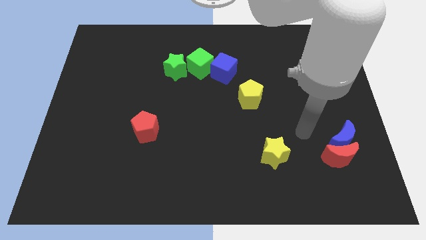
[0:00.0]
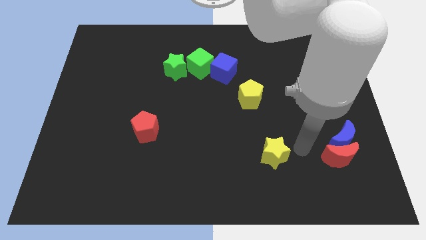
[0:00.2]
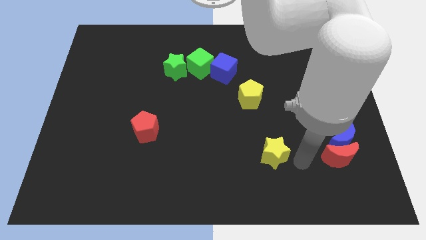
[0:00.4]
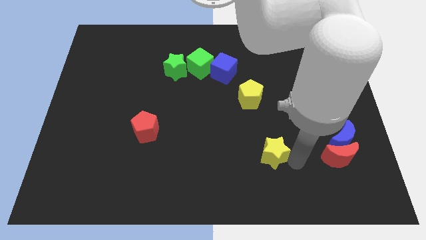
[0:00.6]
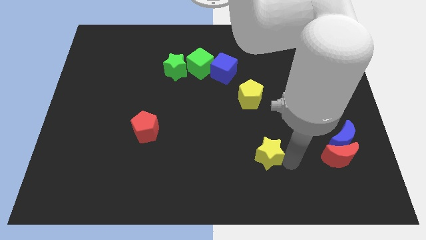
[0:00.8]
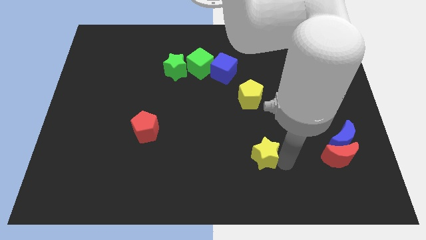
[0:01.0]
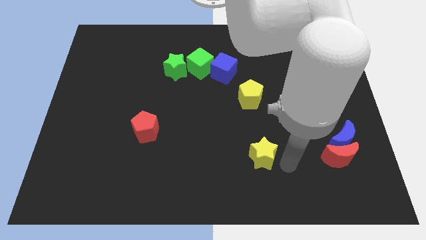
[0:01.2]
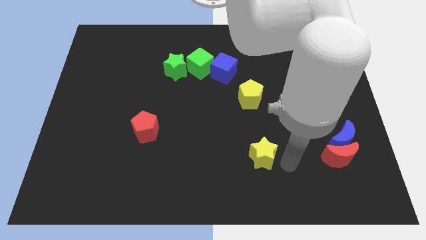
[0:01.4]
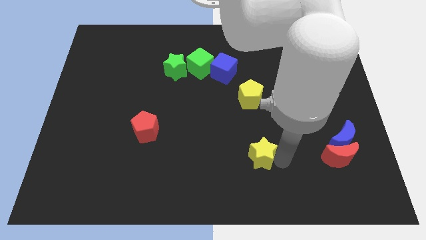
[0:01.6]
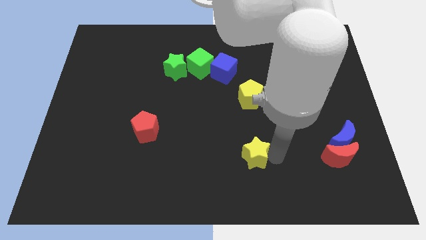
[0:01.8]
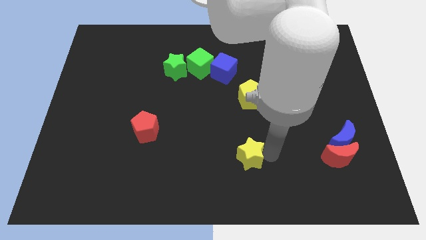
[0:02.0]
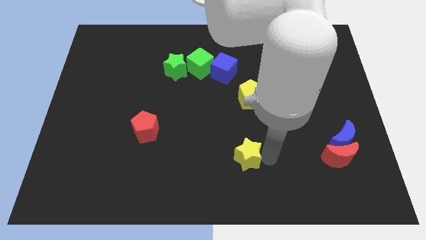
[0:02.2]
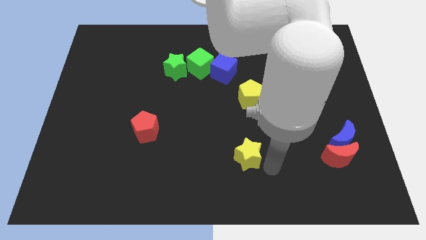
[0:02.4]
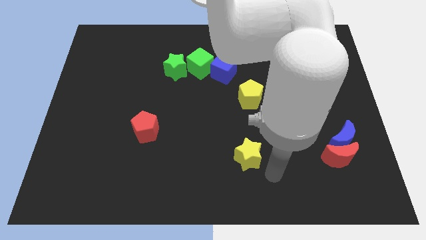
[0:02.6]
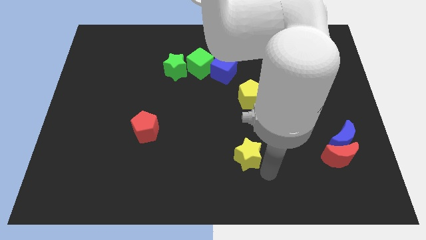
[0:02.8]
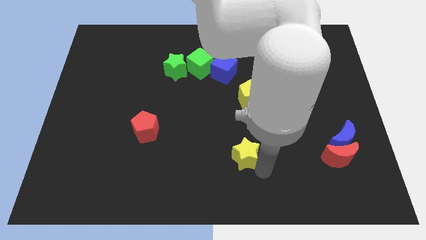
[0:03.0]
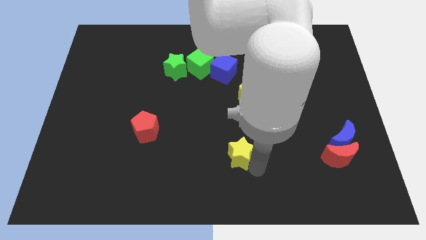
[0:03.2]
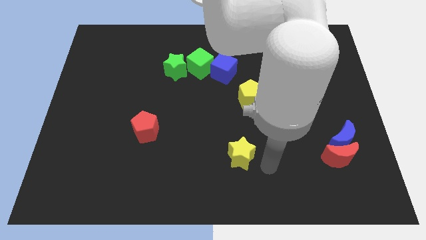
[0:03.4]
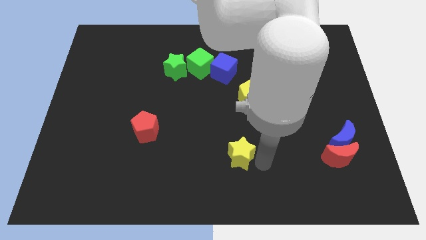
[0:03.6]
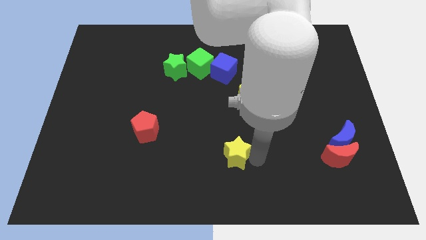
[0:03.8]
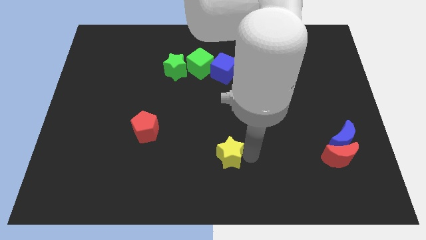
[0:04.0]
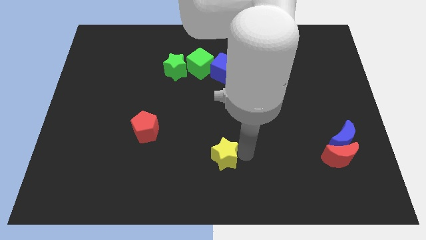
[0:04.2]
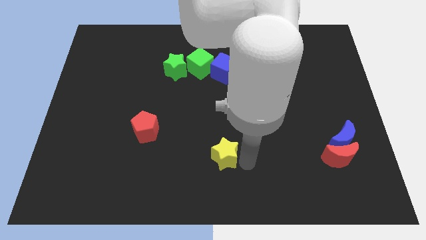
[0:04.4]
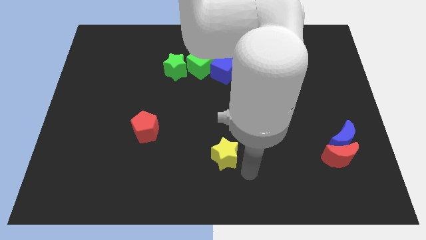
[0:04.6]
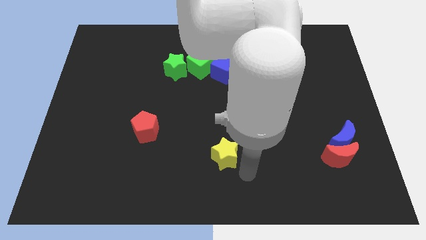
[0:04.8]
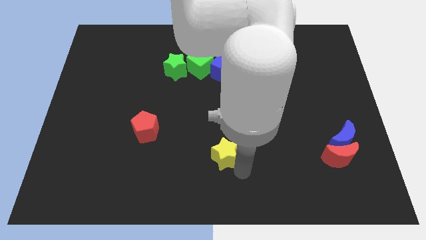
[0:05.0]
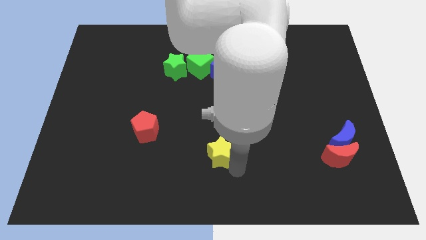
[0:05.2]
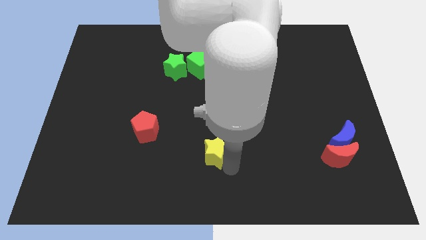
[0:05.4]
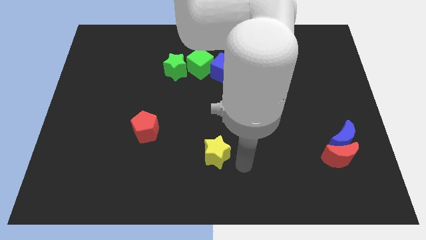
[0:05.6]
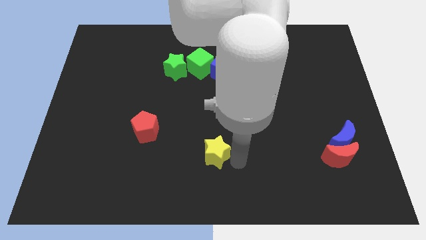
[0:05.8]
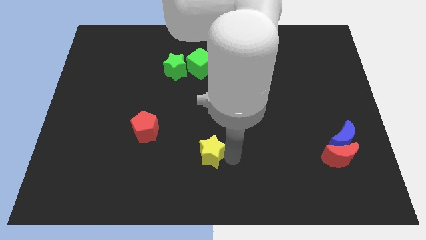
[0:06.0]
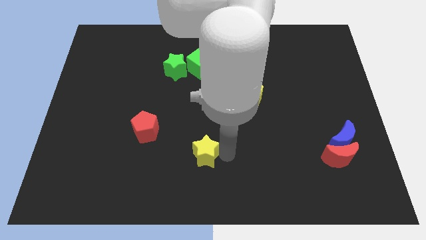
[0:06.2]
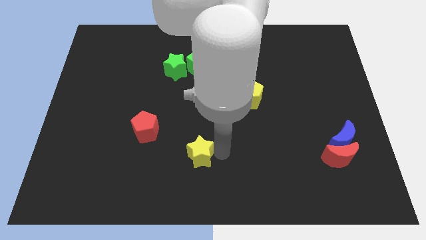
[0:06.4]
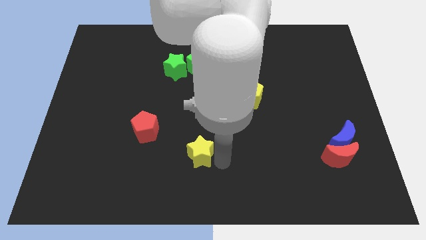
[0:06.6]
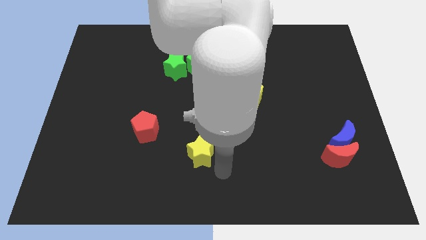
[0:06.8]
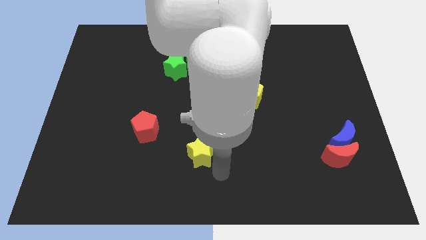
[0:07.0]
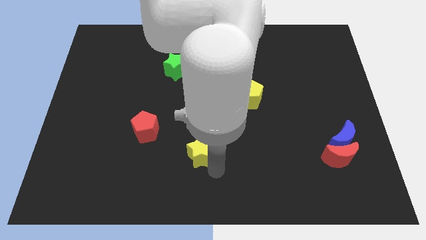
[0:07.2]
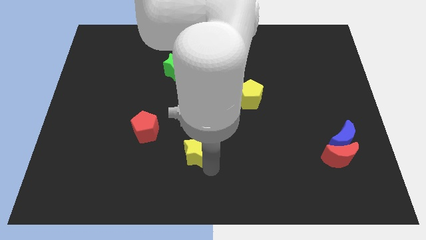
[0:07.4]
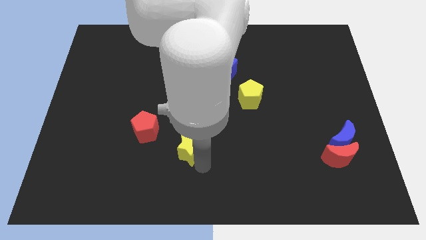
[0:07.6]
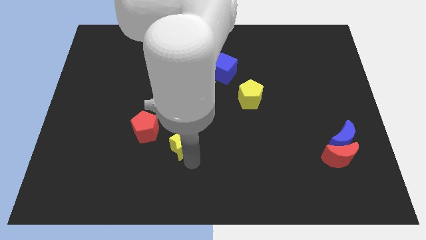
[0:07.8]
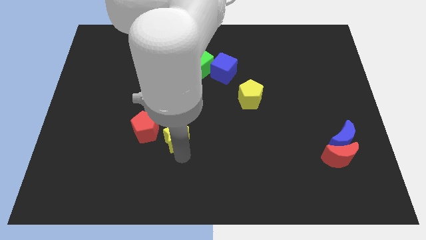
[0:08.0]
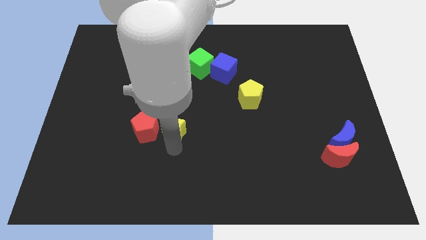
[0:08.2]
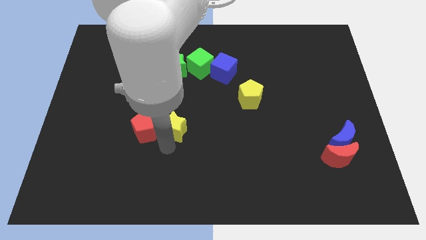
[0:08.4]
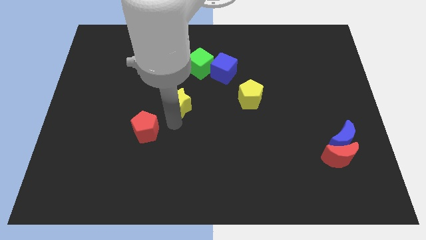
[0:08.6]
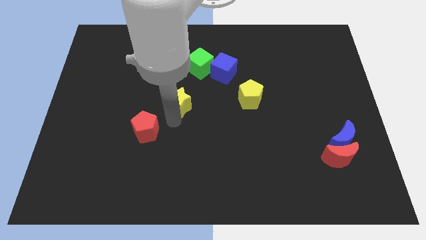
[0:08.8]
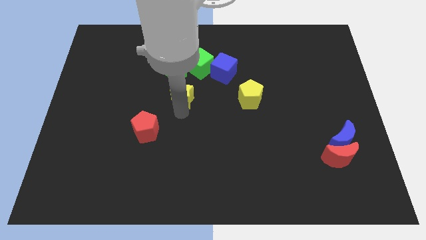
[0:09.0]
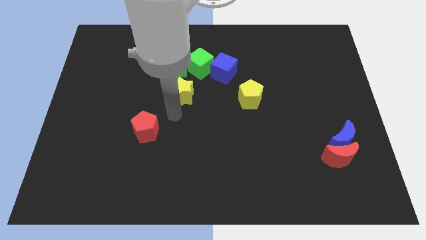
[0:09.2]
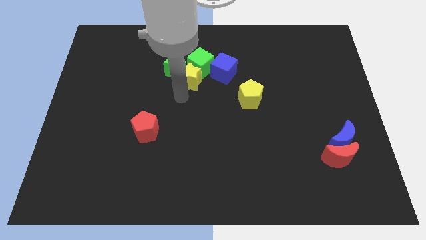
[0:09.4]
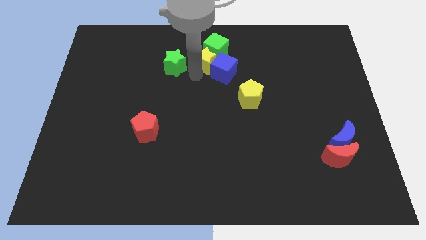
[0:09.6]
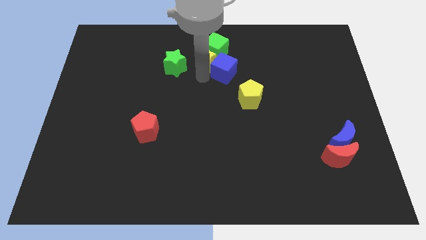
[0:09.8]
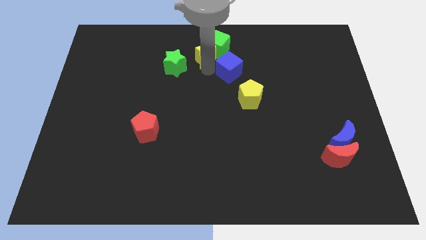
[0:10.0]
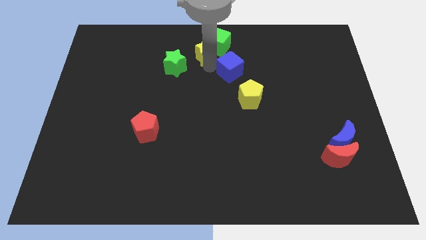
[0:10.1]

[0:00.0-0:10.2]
slide the yellow star to the towards your base

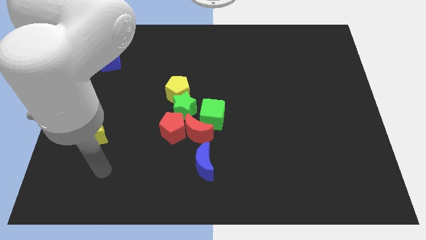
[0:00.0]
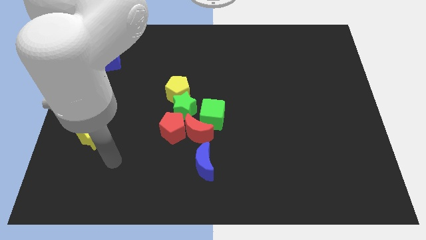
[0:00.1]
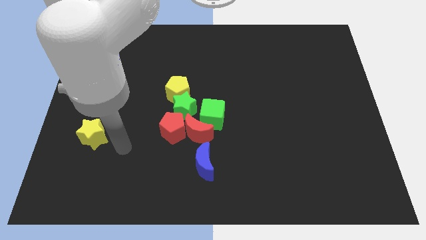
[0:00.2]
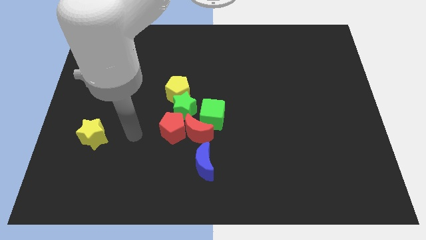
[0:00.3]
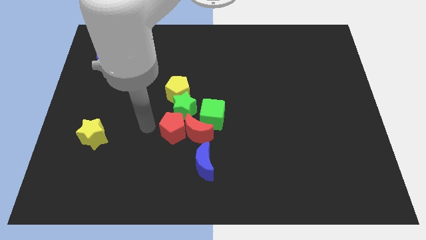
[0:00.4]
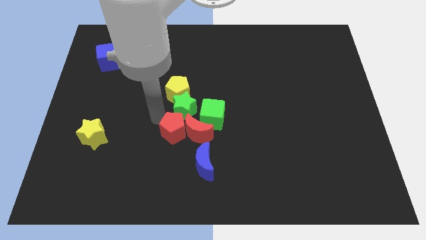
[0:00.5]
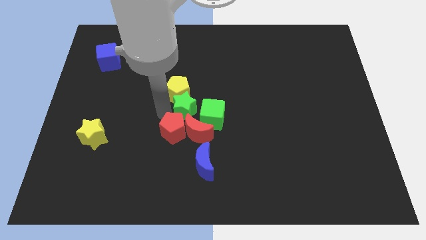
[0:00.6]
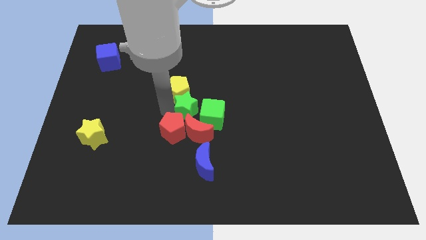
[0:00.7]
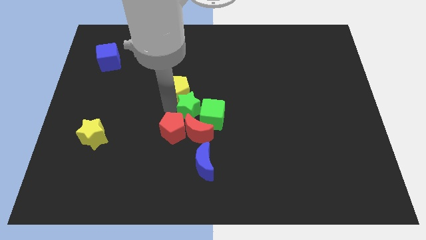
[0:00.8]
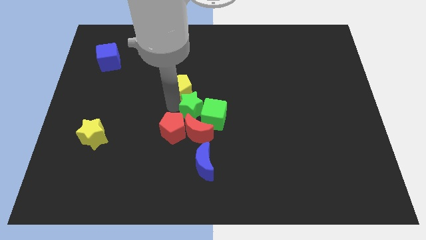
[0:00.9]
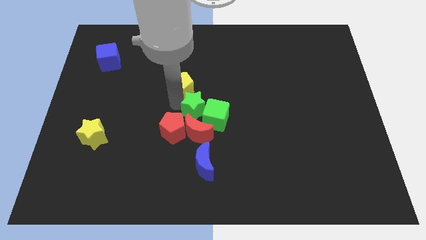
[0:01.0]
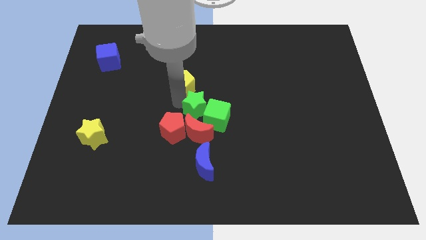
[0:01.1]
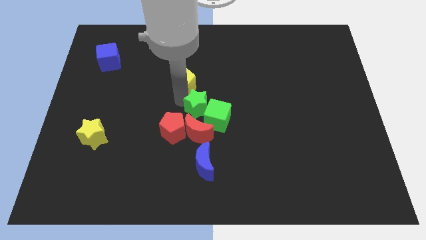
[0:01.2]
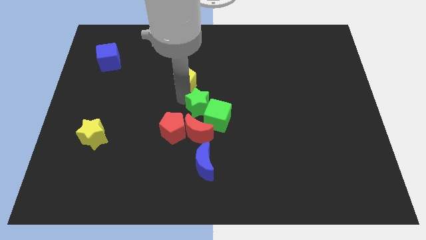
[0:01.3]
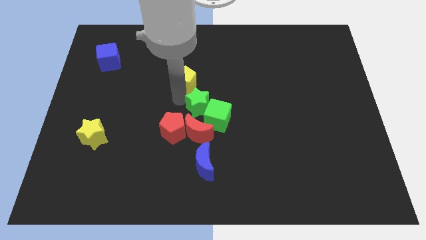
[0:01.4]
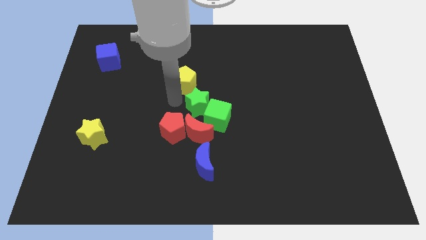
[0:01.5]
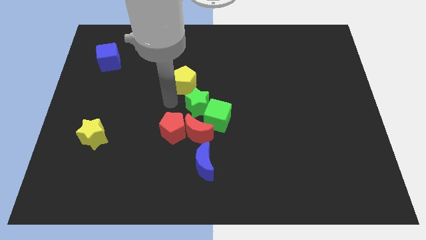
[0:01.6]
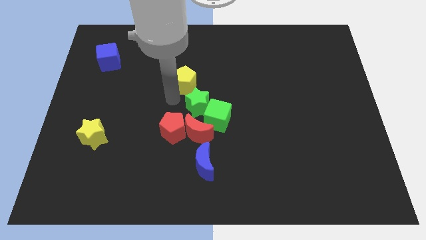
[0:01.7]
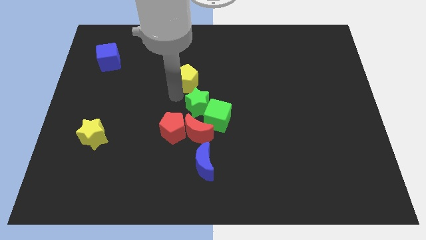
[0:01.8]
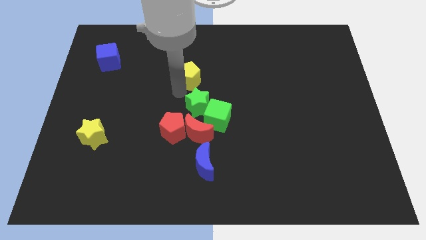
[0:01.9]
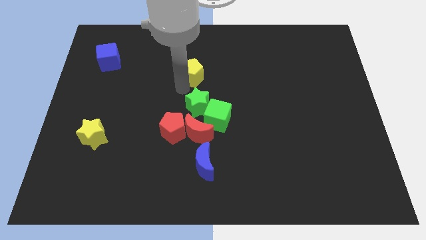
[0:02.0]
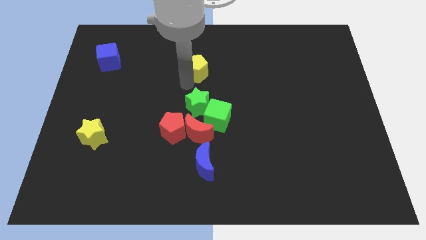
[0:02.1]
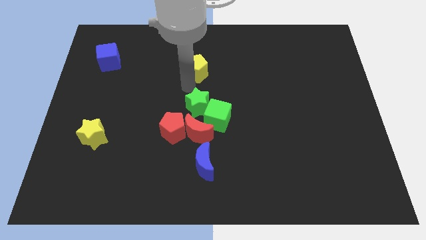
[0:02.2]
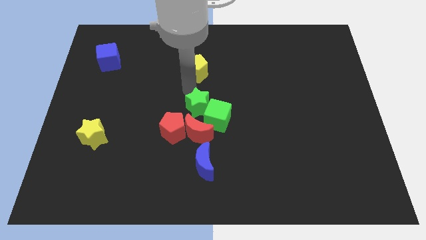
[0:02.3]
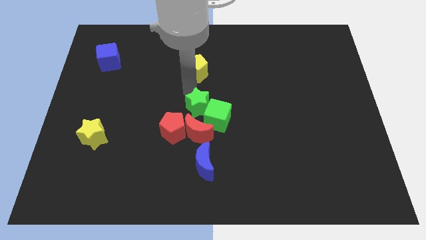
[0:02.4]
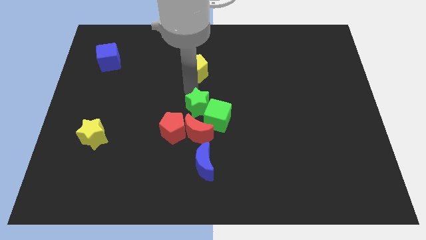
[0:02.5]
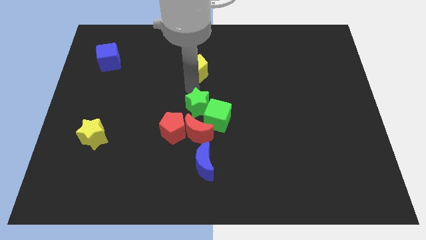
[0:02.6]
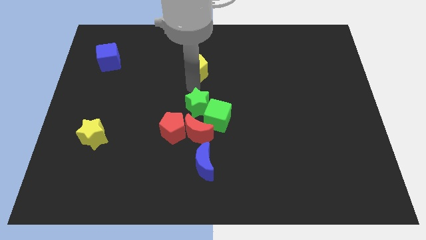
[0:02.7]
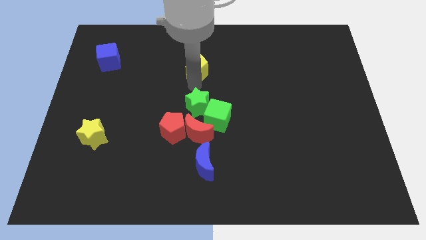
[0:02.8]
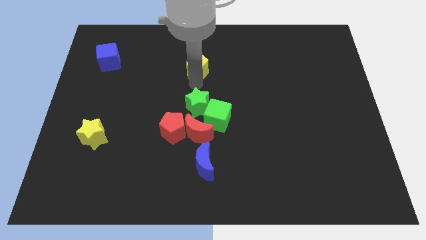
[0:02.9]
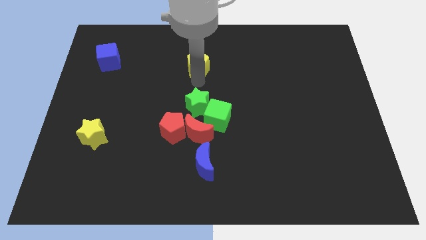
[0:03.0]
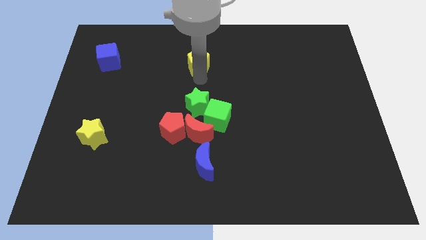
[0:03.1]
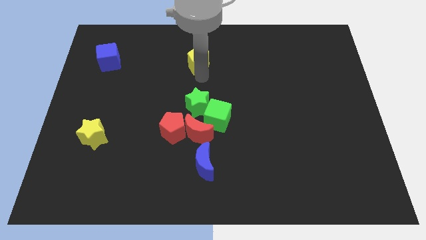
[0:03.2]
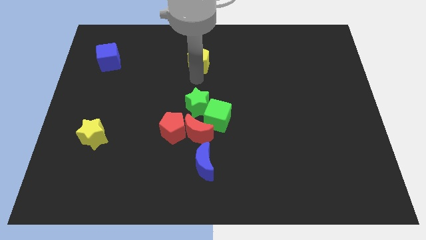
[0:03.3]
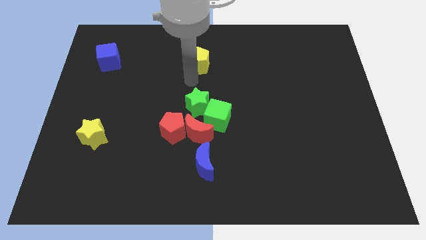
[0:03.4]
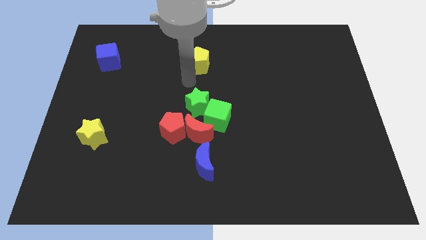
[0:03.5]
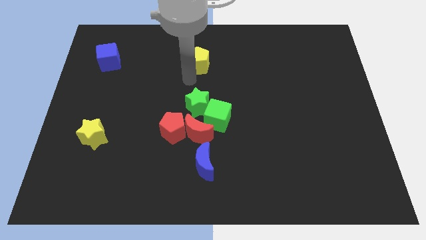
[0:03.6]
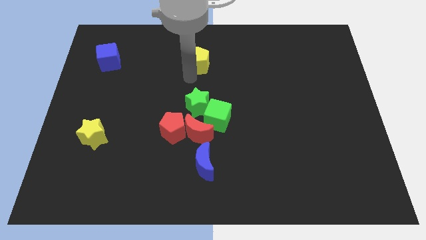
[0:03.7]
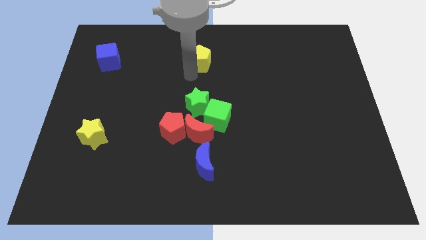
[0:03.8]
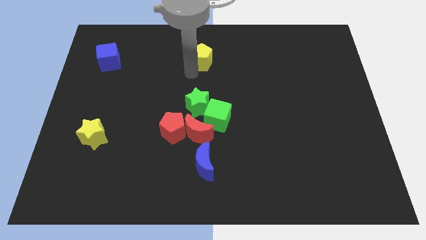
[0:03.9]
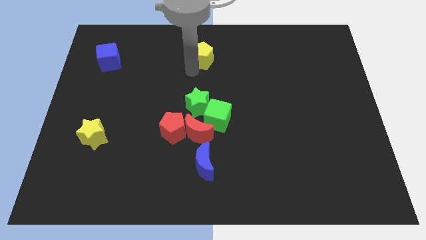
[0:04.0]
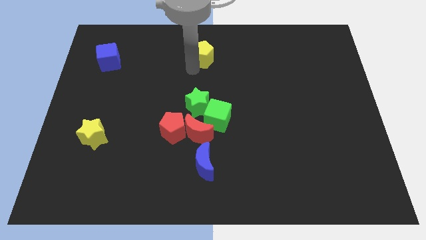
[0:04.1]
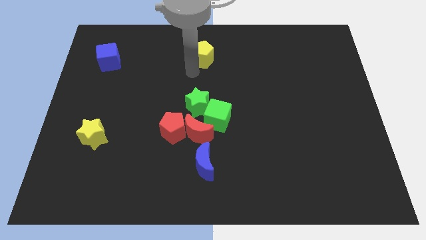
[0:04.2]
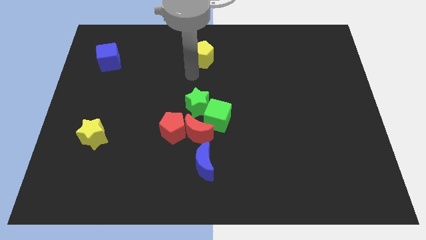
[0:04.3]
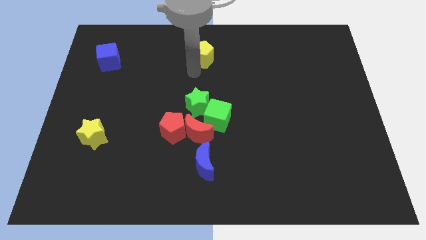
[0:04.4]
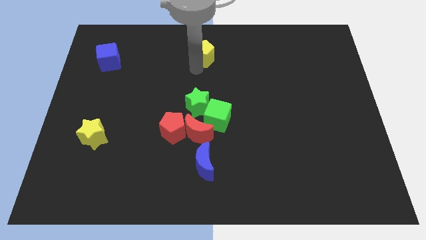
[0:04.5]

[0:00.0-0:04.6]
move the yellow pentagon to the towards your base
